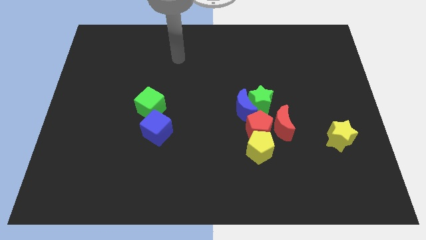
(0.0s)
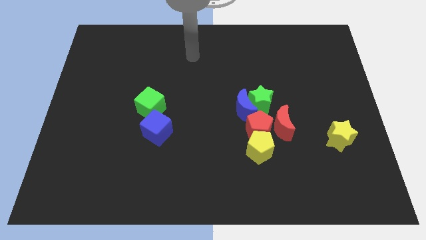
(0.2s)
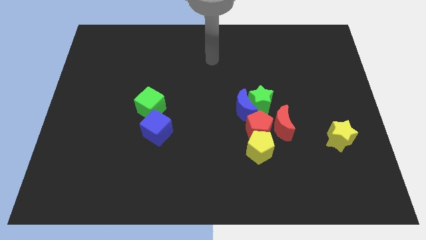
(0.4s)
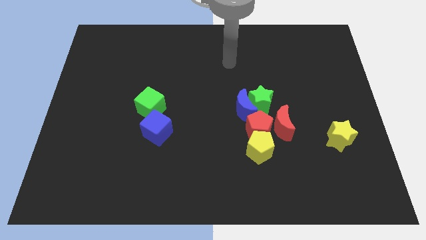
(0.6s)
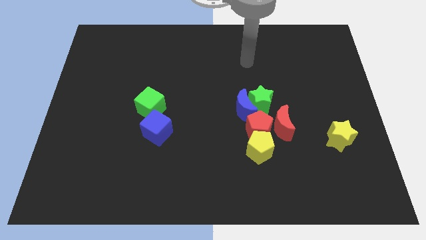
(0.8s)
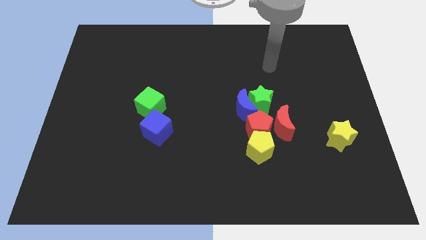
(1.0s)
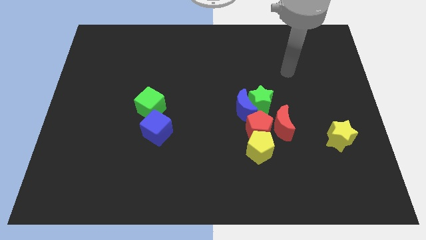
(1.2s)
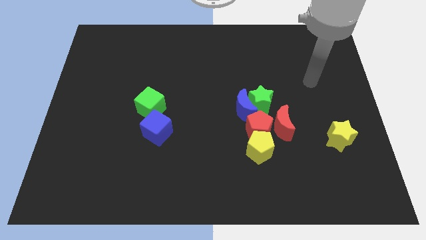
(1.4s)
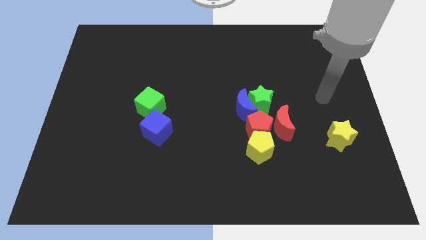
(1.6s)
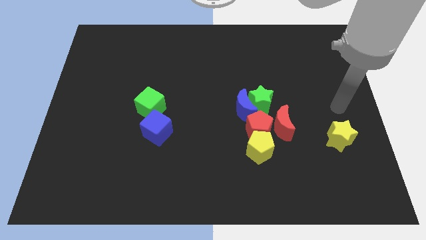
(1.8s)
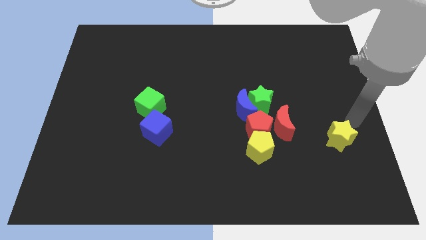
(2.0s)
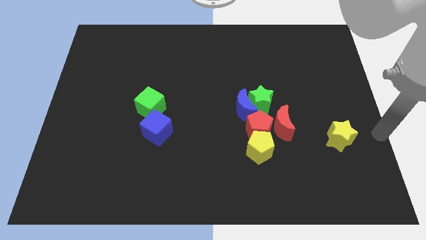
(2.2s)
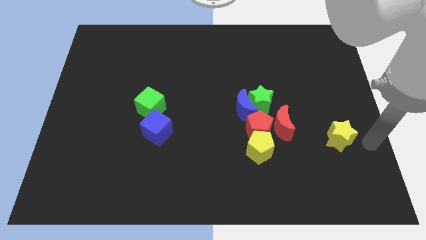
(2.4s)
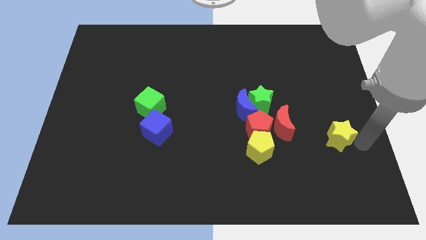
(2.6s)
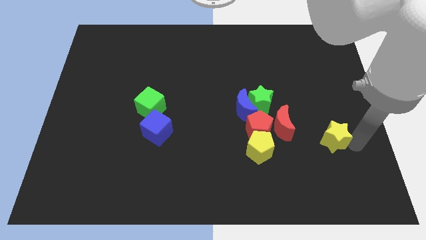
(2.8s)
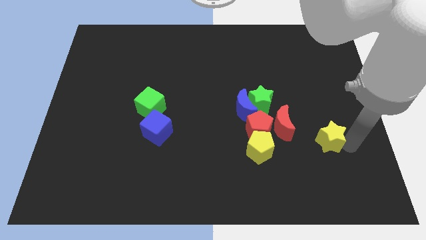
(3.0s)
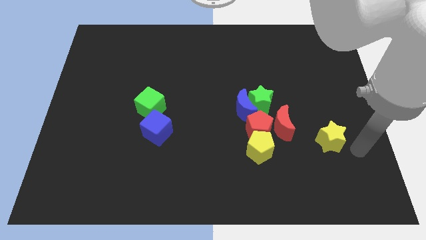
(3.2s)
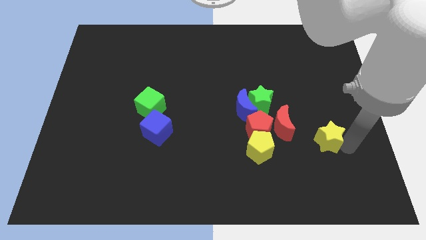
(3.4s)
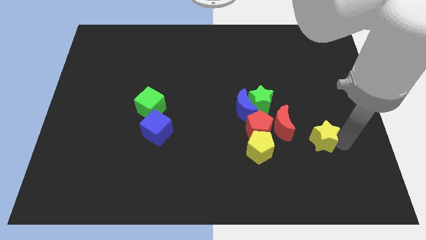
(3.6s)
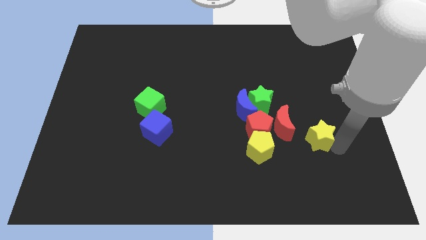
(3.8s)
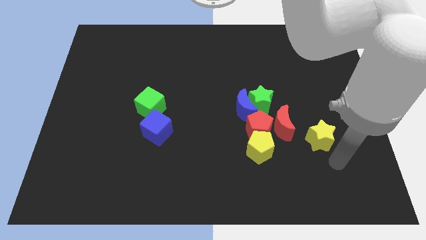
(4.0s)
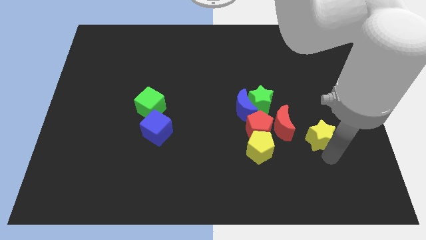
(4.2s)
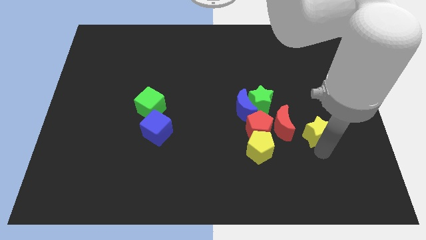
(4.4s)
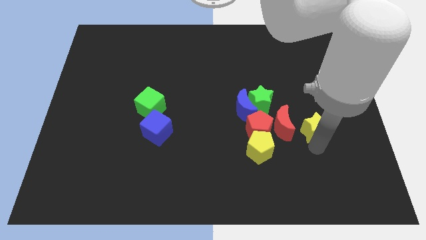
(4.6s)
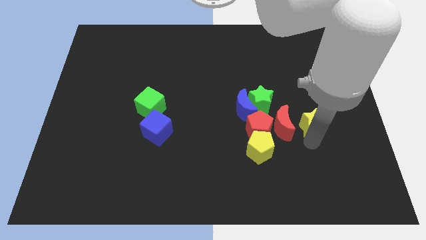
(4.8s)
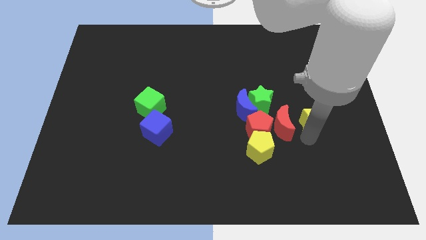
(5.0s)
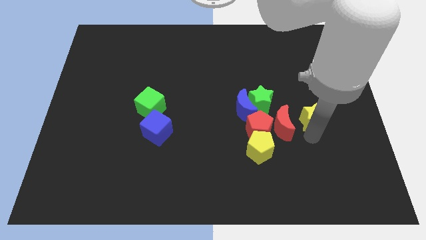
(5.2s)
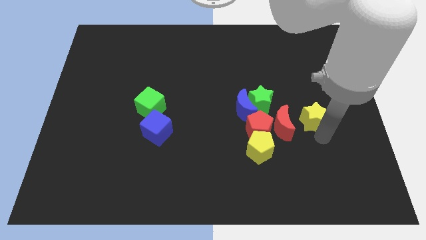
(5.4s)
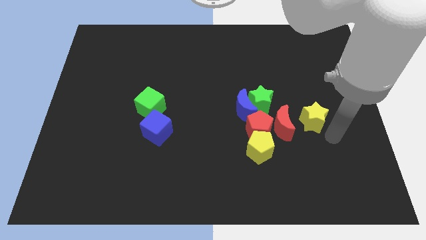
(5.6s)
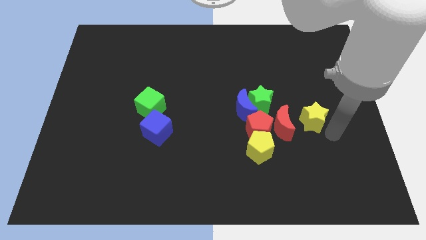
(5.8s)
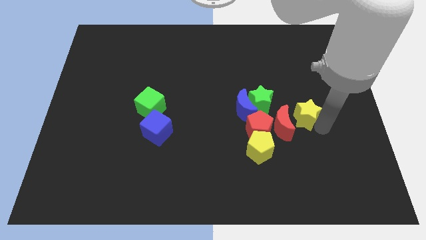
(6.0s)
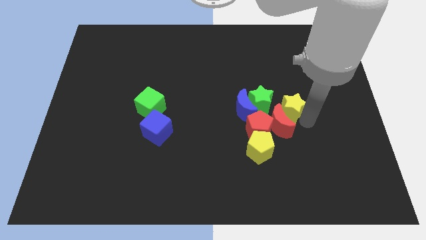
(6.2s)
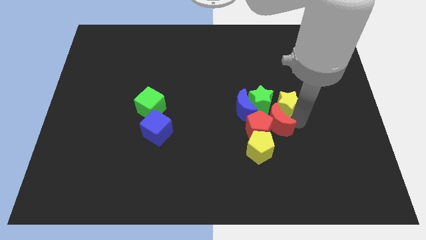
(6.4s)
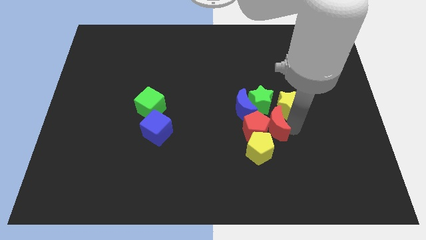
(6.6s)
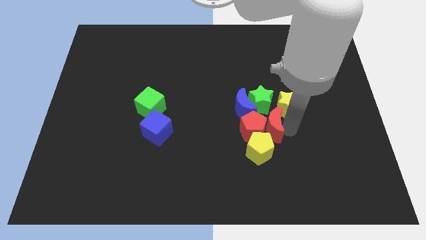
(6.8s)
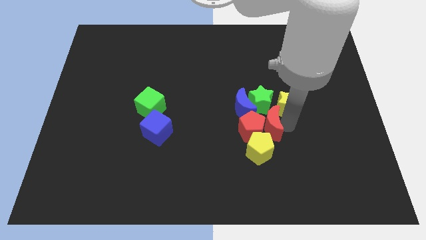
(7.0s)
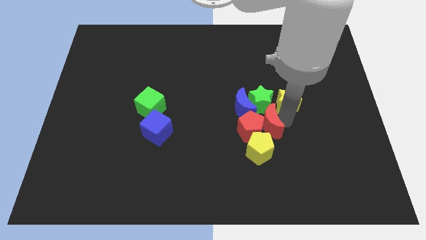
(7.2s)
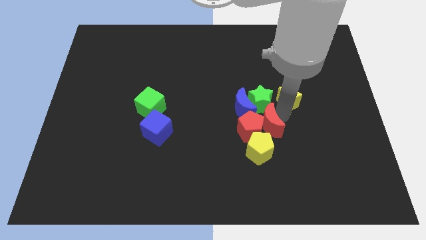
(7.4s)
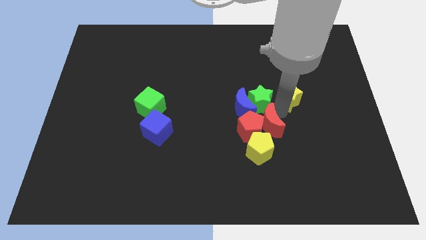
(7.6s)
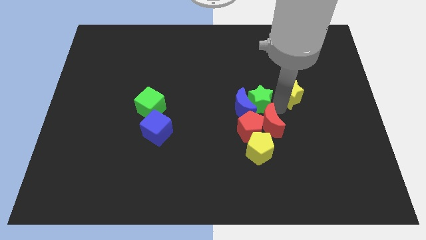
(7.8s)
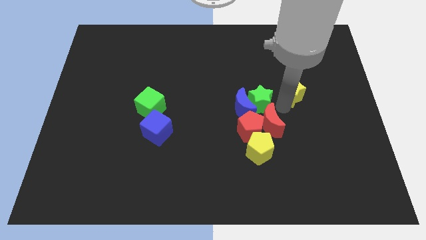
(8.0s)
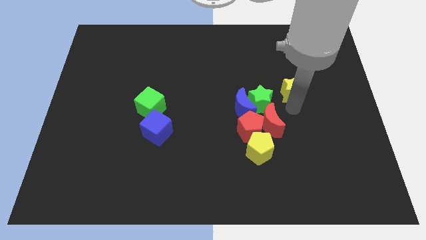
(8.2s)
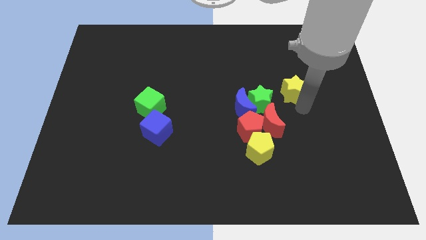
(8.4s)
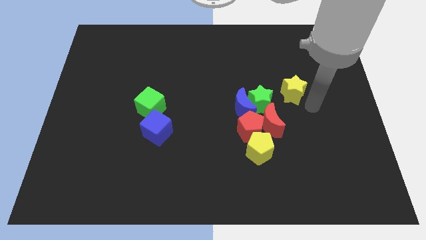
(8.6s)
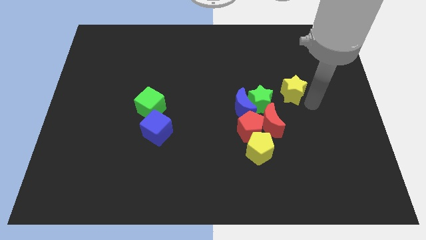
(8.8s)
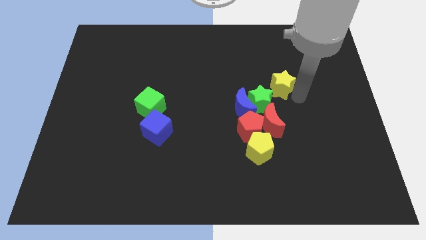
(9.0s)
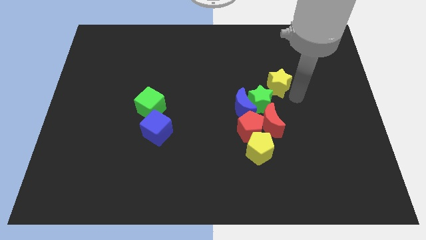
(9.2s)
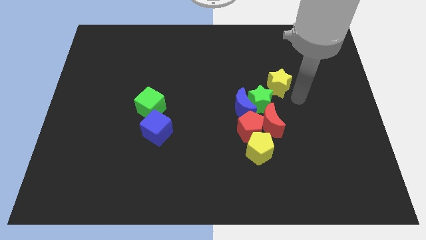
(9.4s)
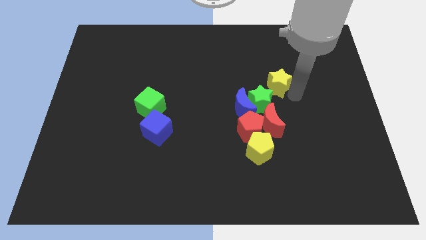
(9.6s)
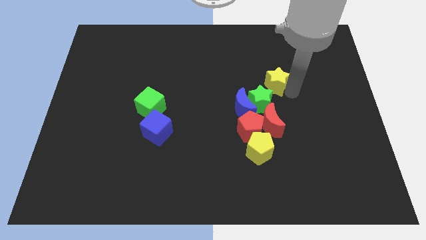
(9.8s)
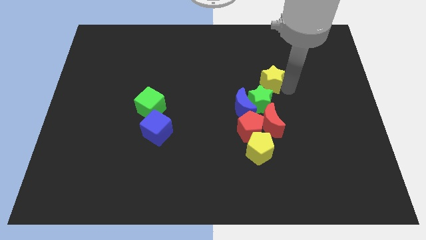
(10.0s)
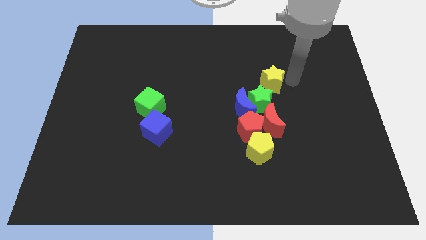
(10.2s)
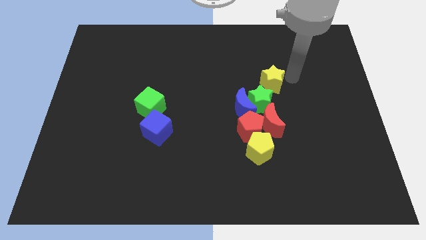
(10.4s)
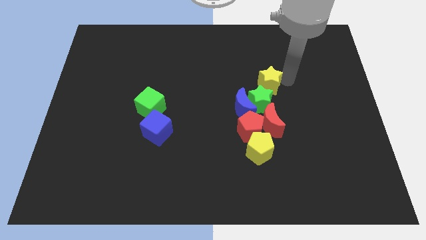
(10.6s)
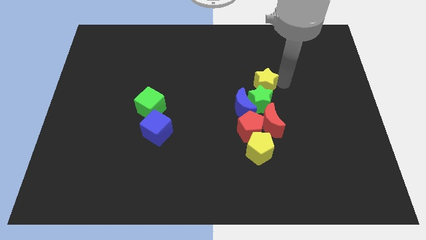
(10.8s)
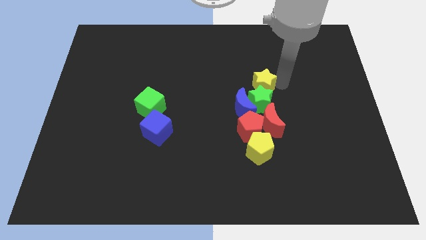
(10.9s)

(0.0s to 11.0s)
put the yellow star to the middle

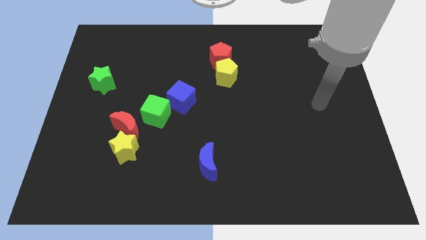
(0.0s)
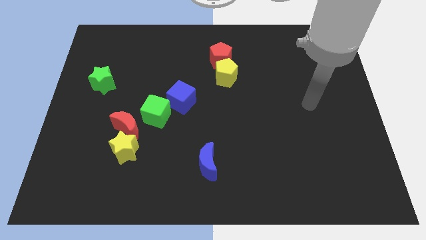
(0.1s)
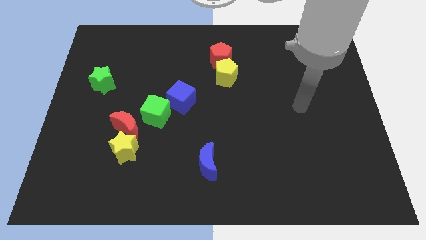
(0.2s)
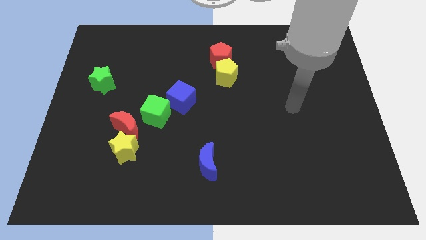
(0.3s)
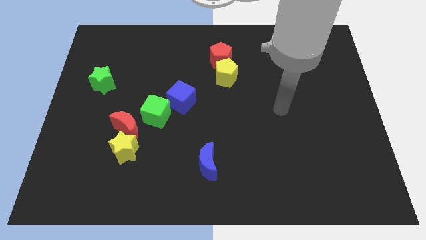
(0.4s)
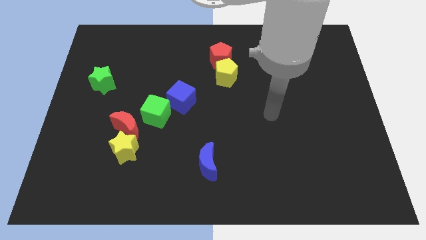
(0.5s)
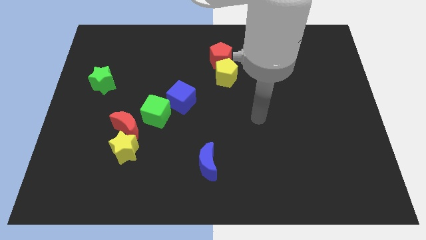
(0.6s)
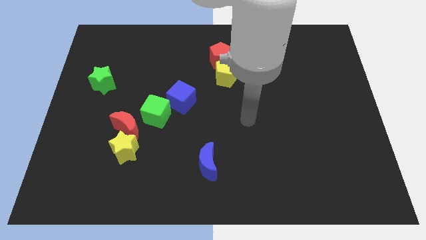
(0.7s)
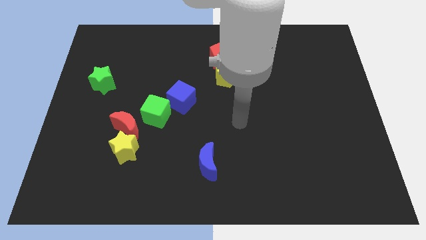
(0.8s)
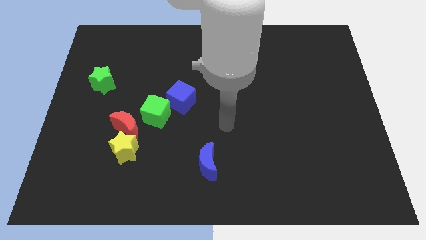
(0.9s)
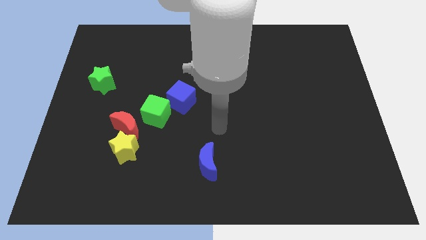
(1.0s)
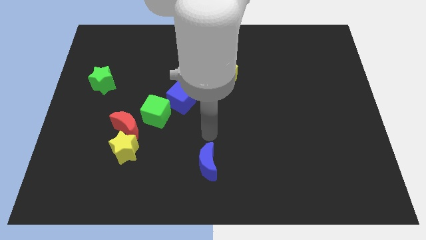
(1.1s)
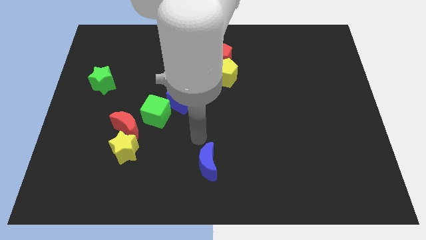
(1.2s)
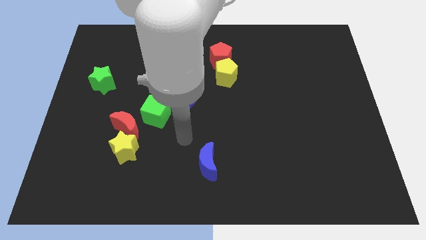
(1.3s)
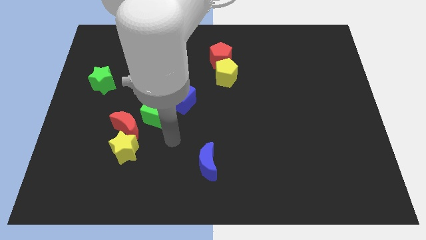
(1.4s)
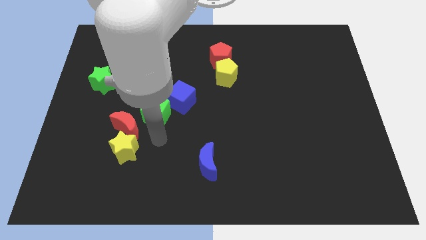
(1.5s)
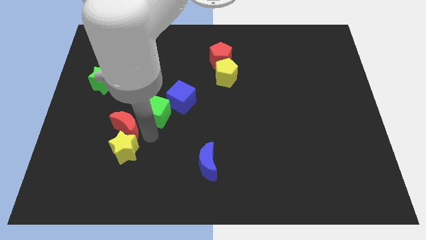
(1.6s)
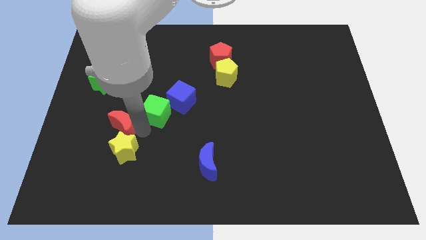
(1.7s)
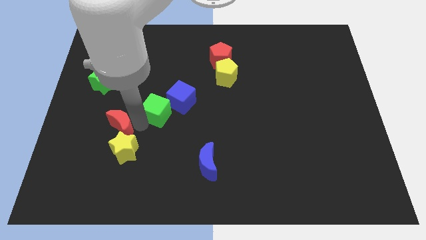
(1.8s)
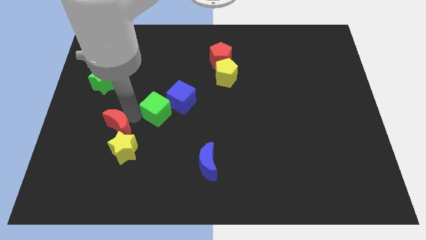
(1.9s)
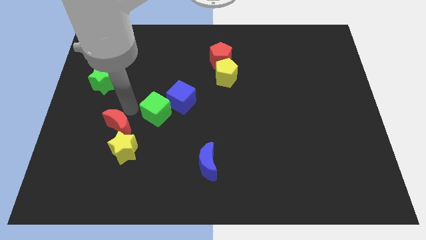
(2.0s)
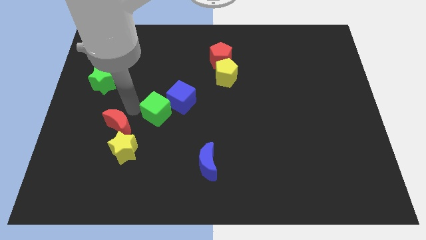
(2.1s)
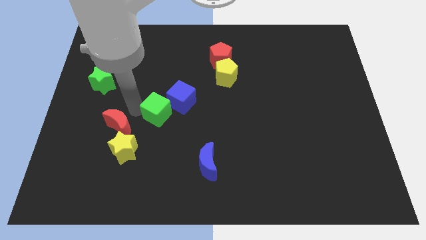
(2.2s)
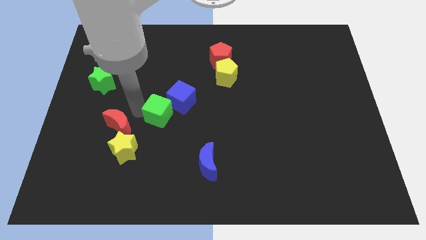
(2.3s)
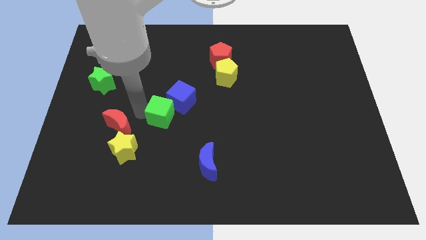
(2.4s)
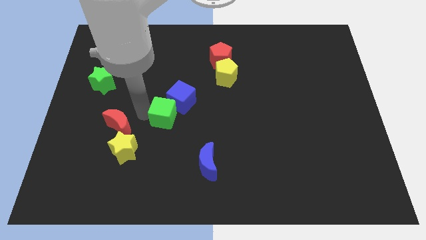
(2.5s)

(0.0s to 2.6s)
put the green cube to the center of the board
